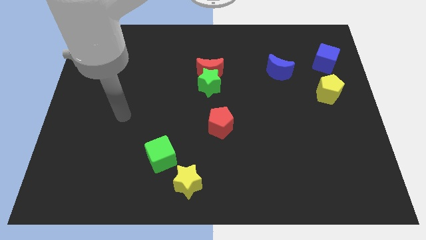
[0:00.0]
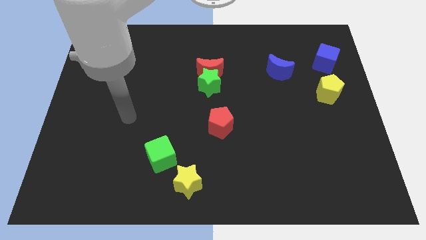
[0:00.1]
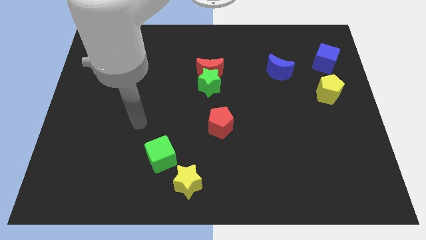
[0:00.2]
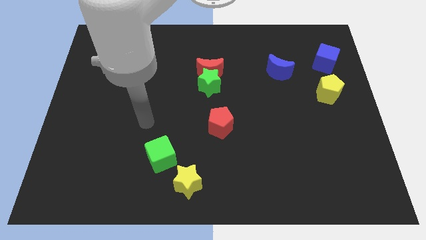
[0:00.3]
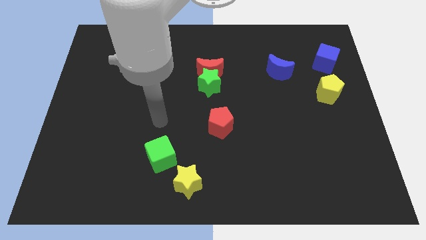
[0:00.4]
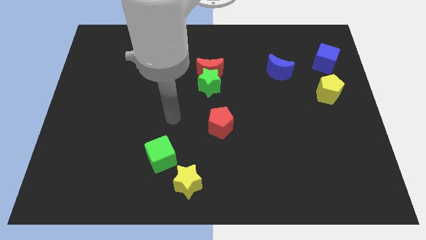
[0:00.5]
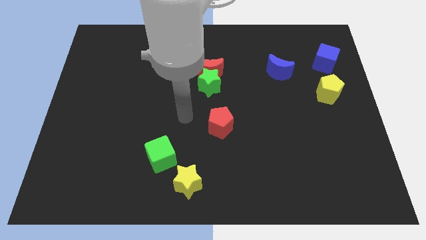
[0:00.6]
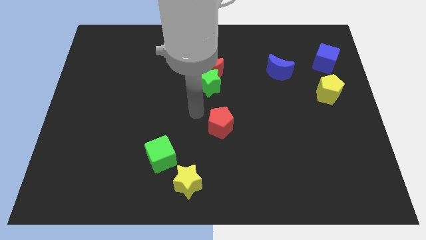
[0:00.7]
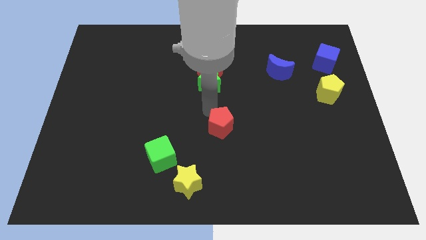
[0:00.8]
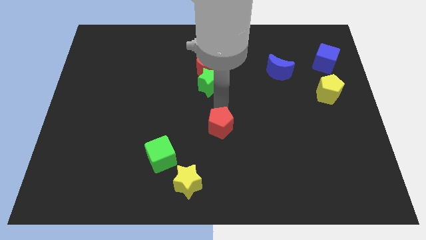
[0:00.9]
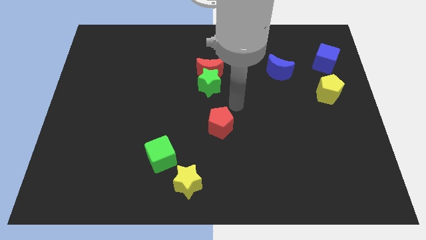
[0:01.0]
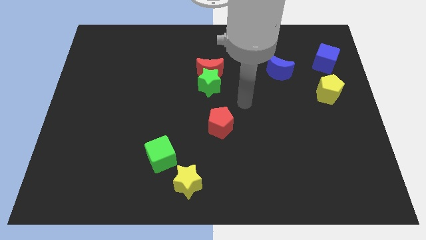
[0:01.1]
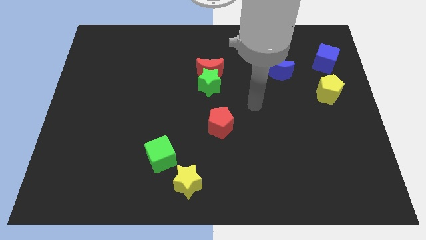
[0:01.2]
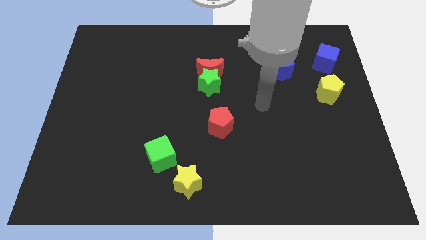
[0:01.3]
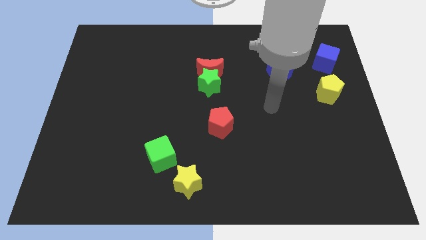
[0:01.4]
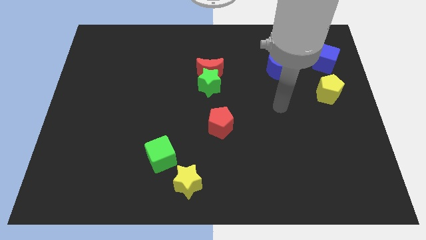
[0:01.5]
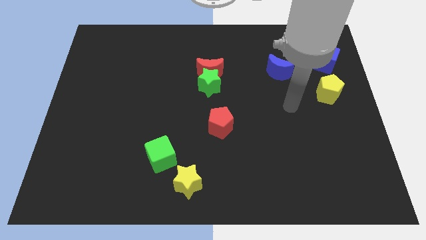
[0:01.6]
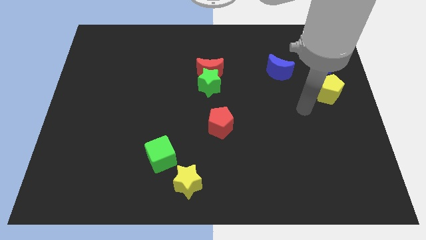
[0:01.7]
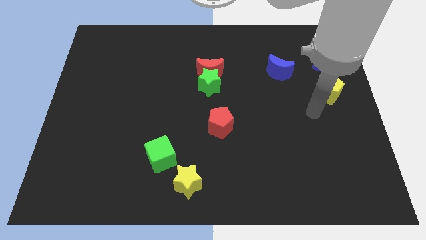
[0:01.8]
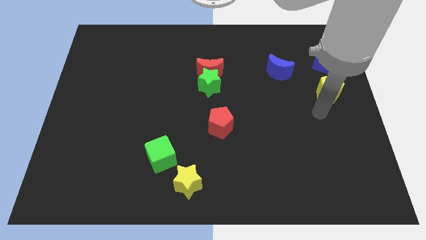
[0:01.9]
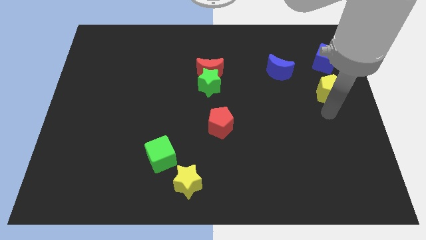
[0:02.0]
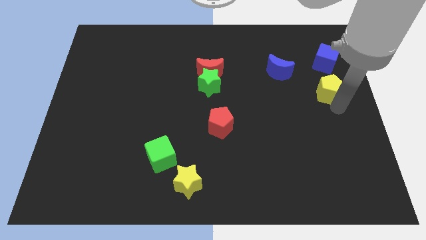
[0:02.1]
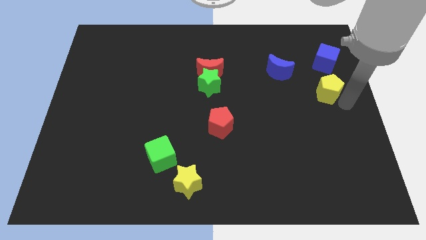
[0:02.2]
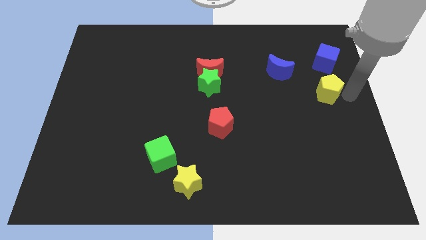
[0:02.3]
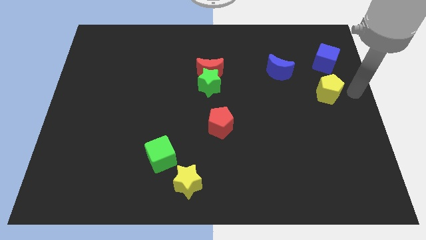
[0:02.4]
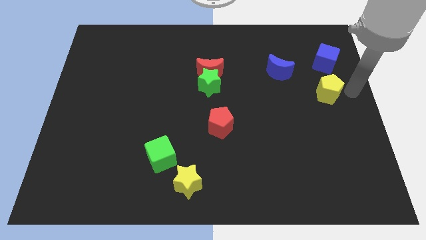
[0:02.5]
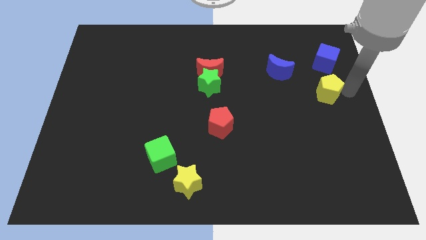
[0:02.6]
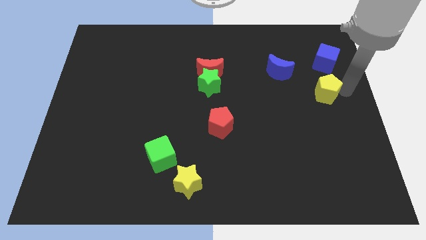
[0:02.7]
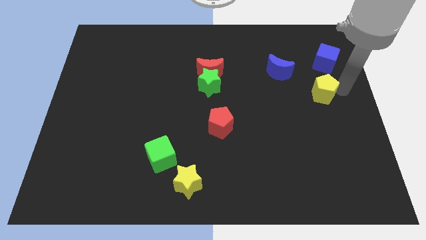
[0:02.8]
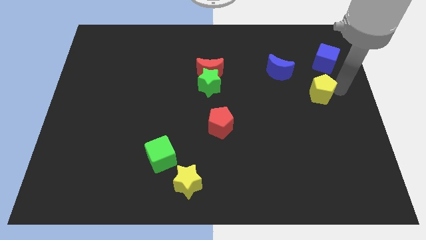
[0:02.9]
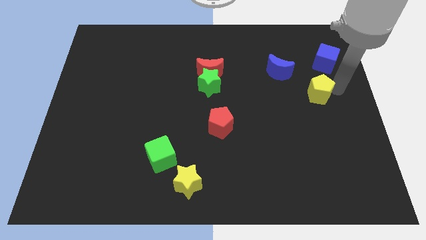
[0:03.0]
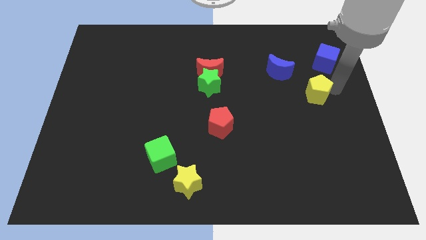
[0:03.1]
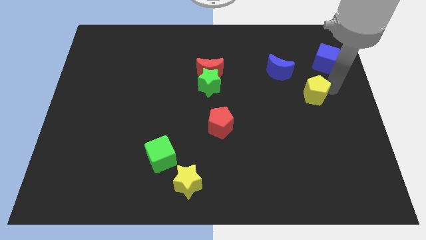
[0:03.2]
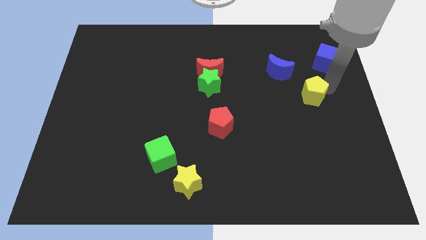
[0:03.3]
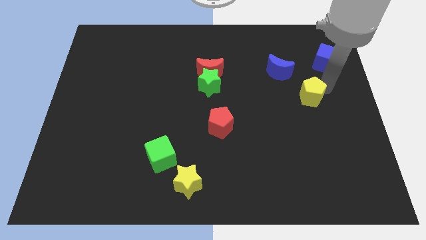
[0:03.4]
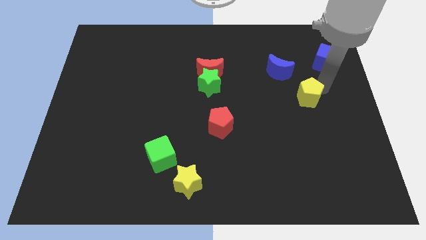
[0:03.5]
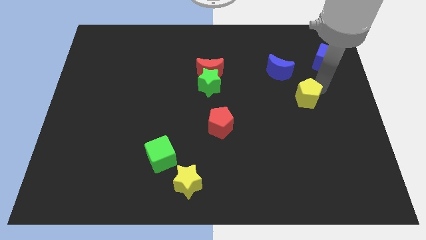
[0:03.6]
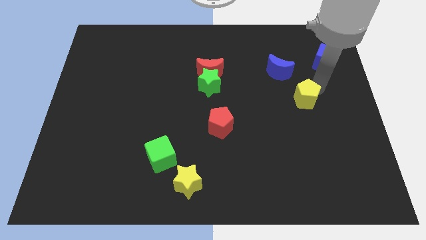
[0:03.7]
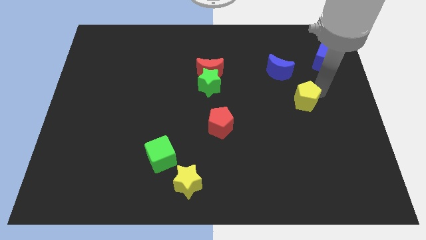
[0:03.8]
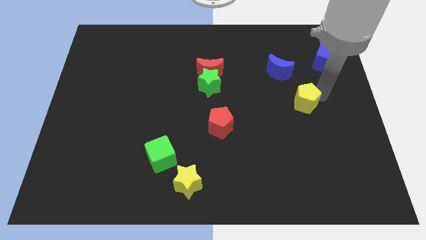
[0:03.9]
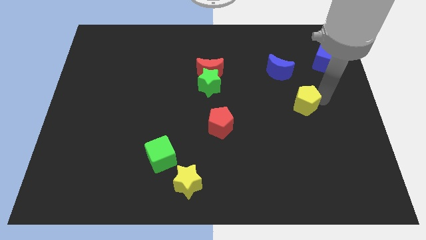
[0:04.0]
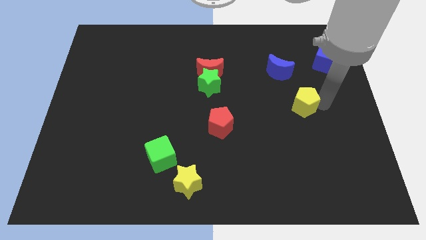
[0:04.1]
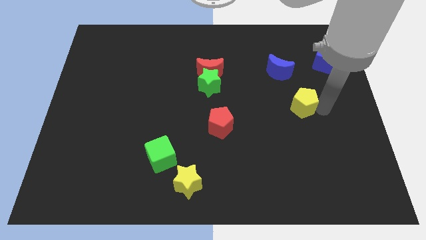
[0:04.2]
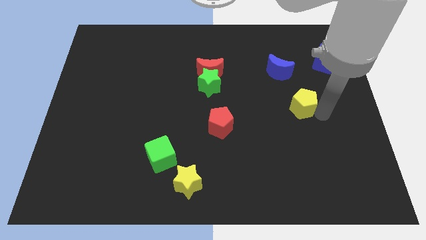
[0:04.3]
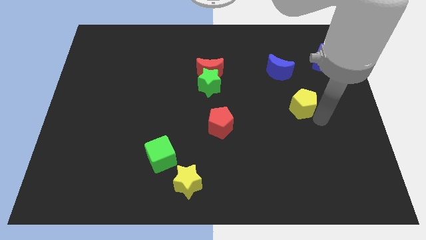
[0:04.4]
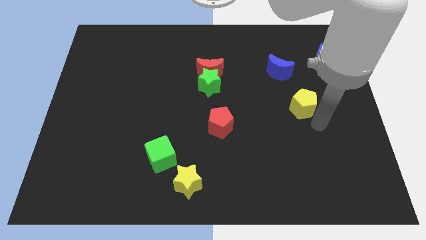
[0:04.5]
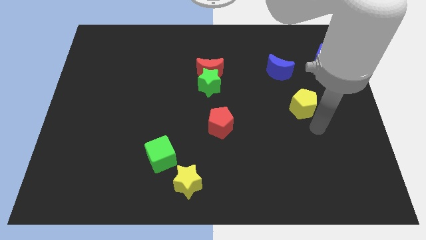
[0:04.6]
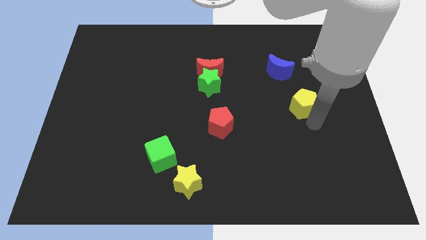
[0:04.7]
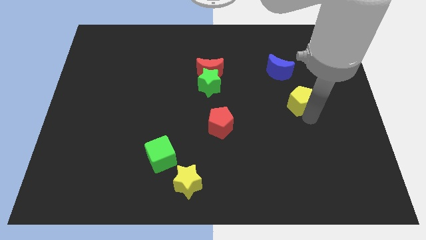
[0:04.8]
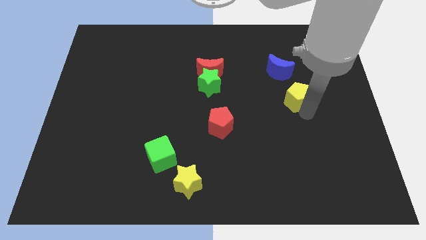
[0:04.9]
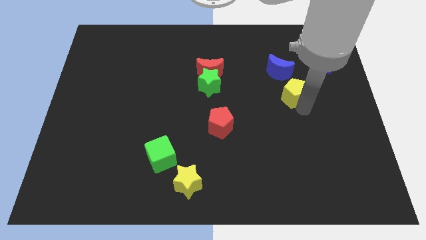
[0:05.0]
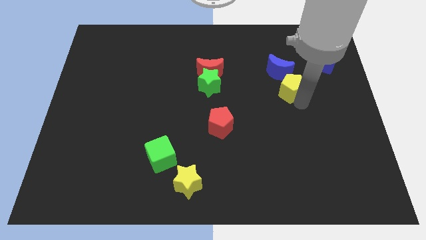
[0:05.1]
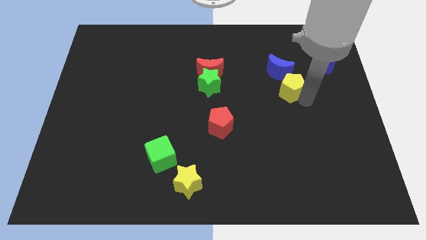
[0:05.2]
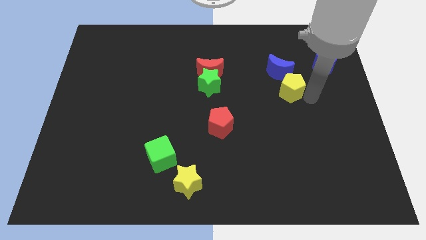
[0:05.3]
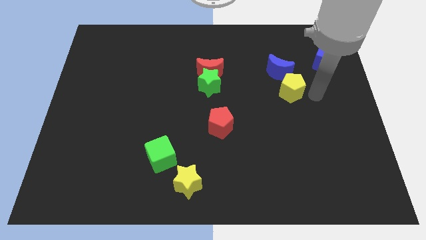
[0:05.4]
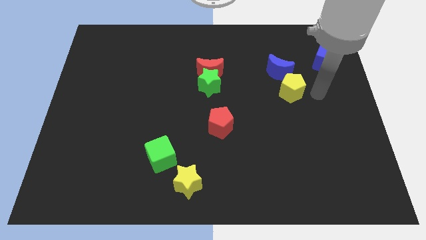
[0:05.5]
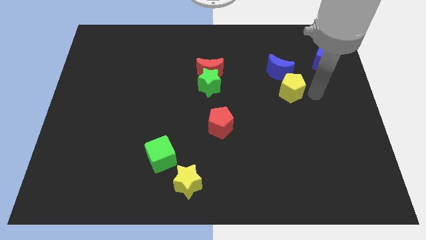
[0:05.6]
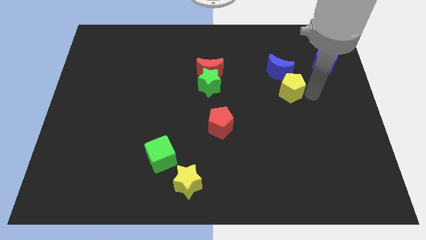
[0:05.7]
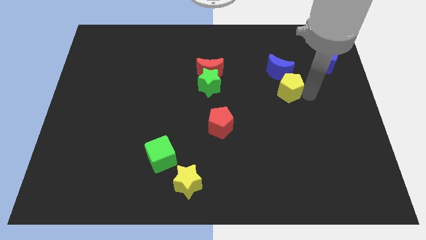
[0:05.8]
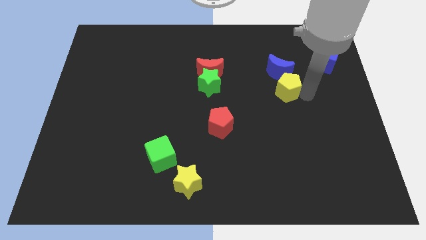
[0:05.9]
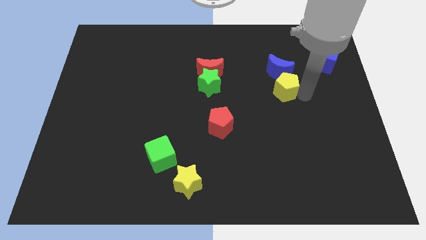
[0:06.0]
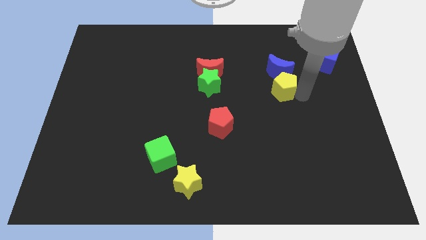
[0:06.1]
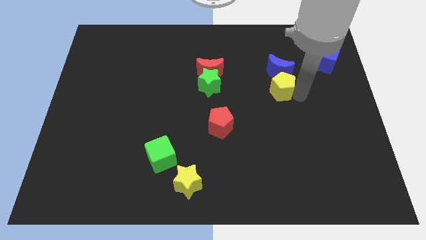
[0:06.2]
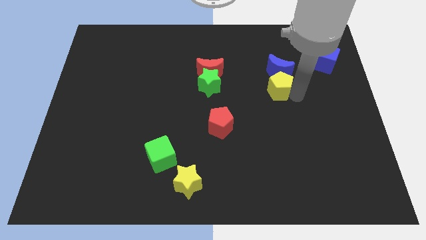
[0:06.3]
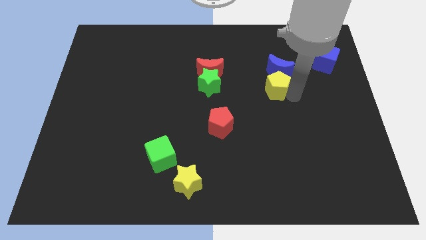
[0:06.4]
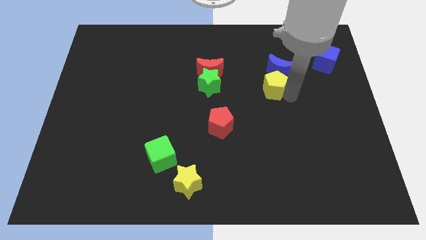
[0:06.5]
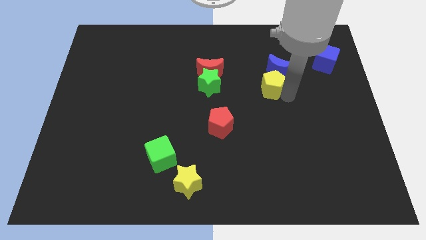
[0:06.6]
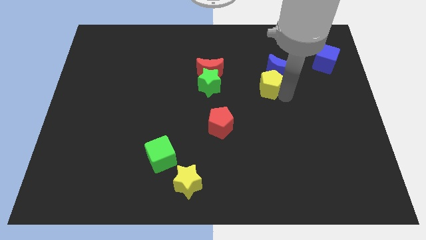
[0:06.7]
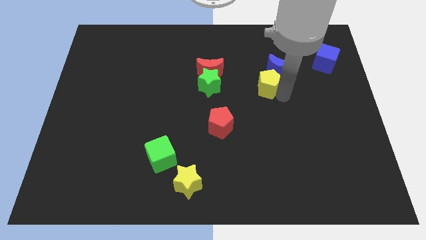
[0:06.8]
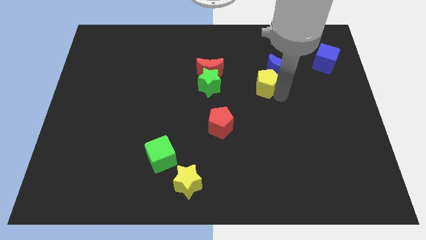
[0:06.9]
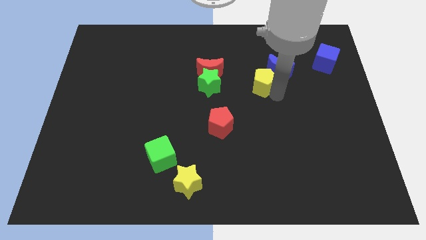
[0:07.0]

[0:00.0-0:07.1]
push the yellow pentagon to the left of the blue moon

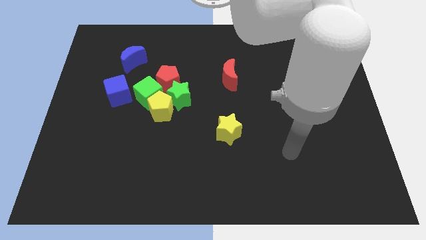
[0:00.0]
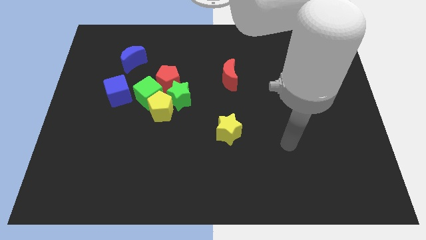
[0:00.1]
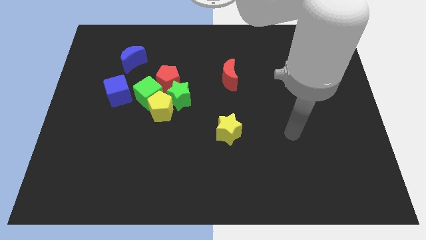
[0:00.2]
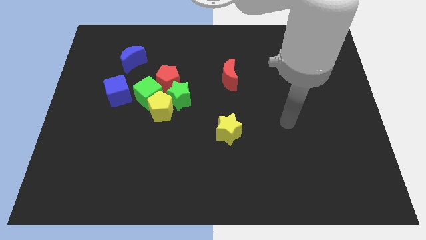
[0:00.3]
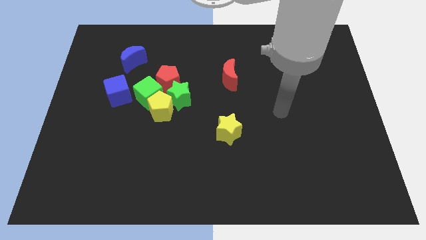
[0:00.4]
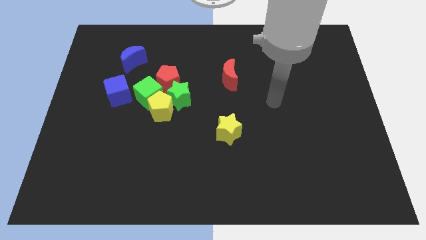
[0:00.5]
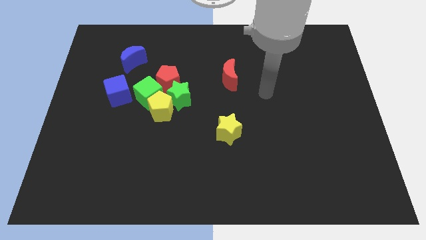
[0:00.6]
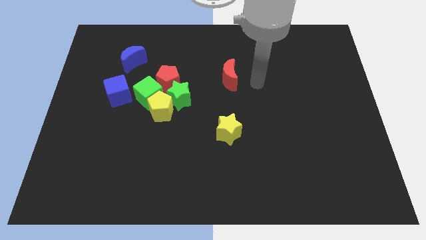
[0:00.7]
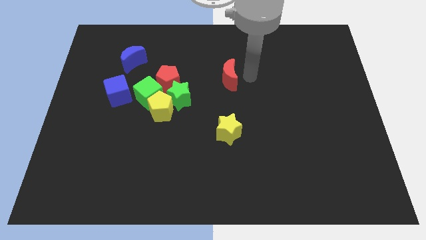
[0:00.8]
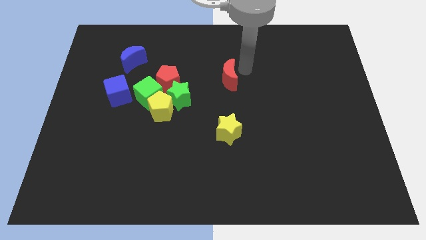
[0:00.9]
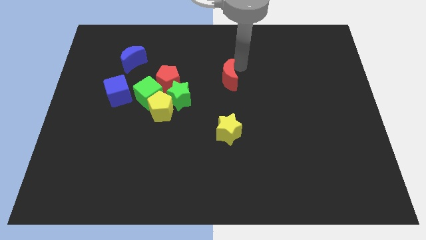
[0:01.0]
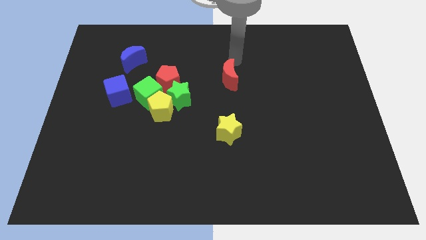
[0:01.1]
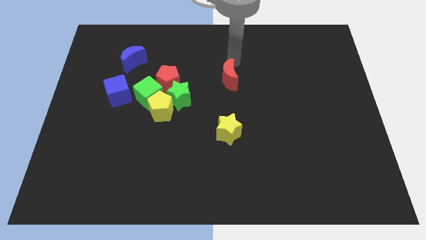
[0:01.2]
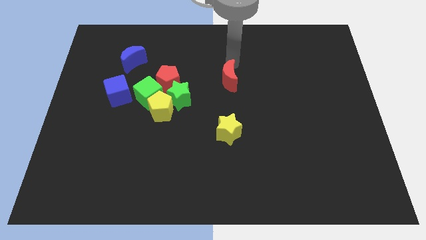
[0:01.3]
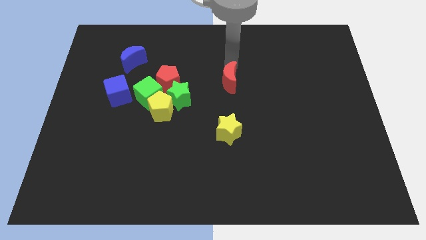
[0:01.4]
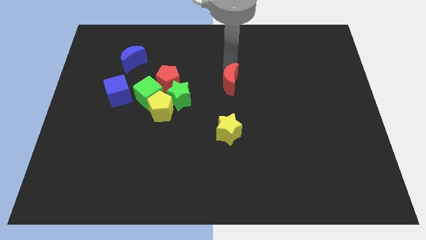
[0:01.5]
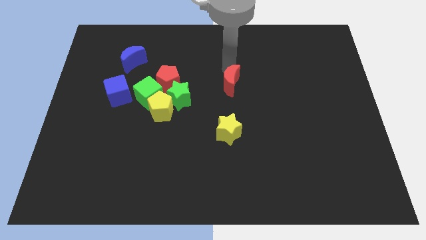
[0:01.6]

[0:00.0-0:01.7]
put the red moon to the right side of the green star
